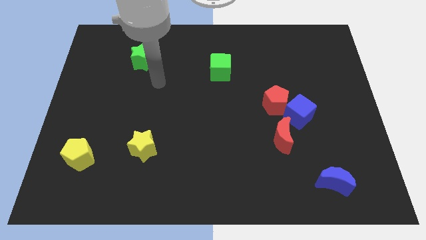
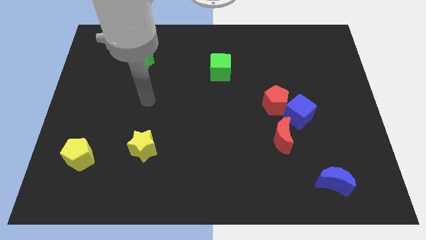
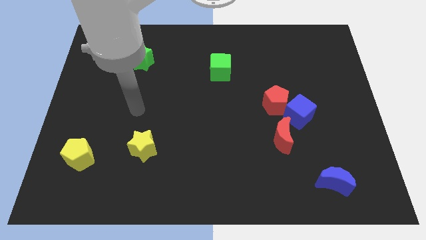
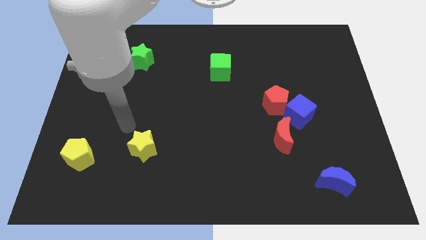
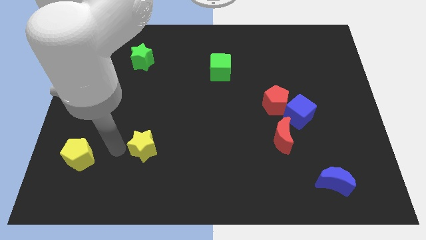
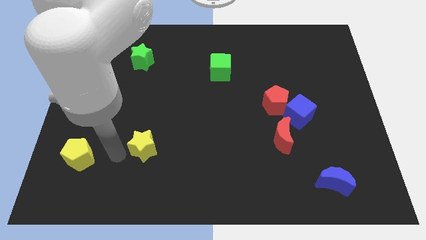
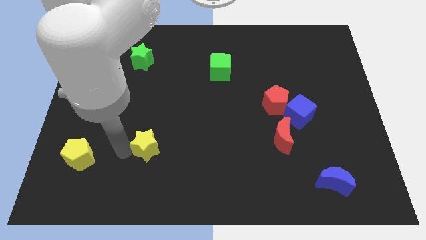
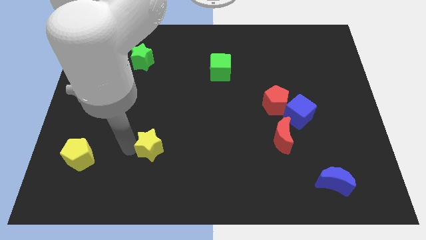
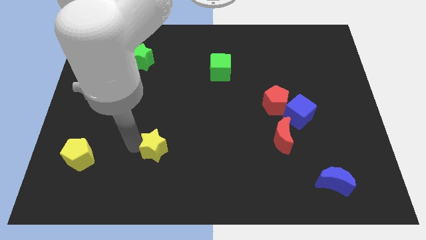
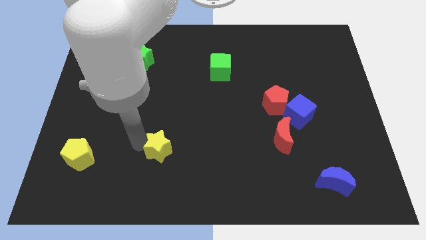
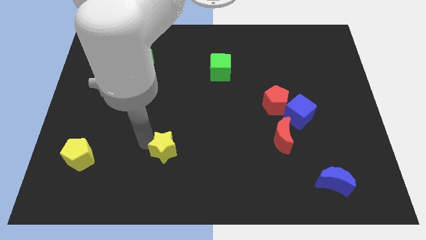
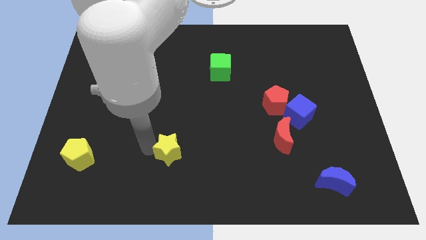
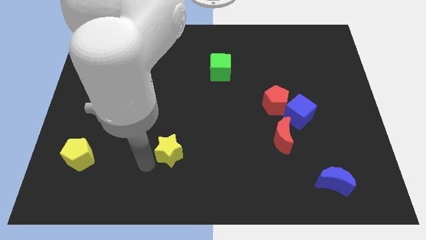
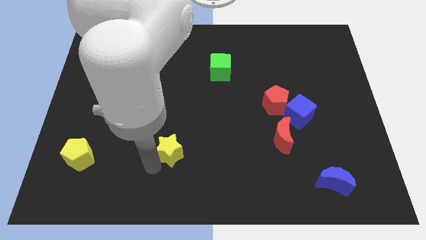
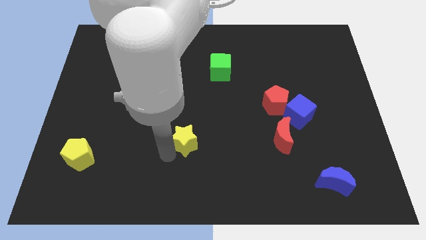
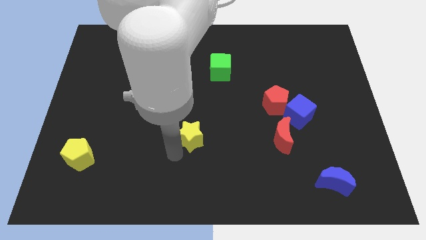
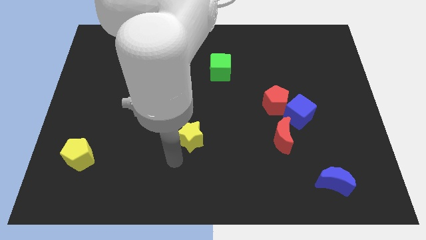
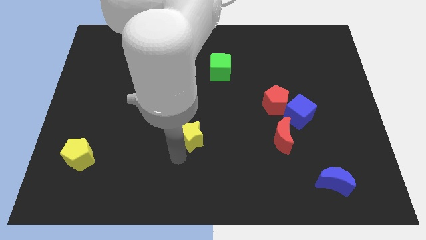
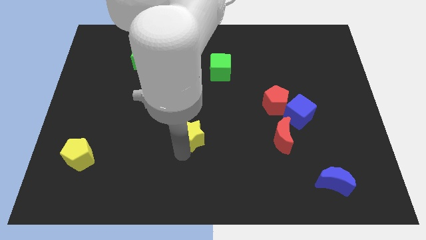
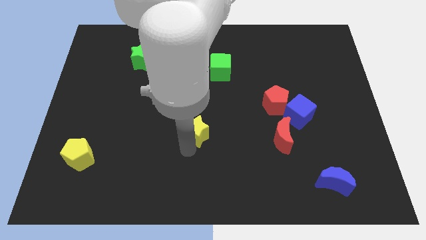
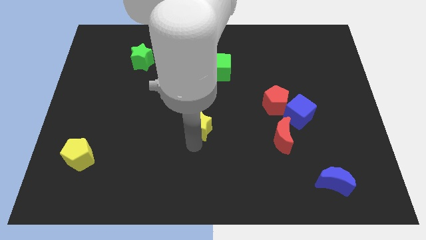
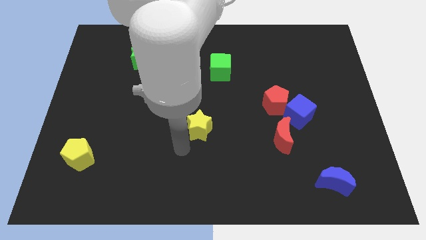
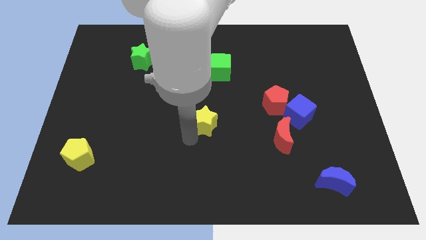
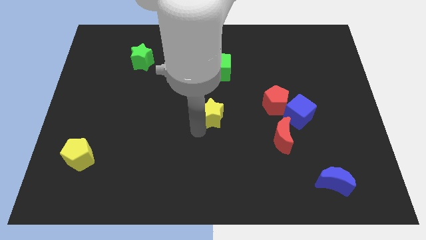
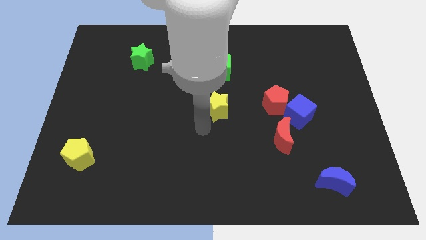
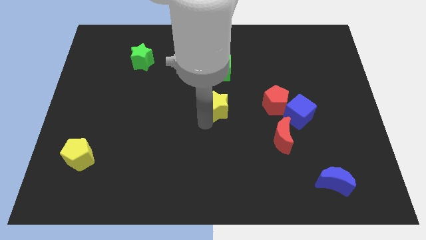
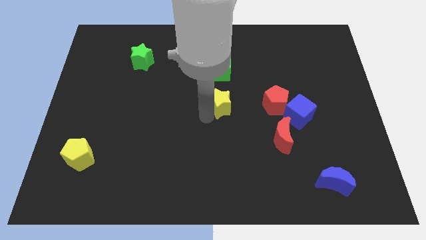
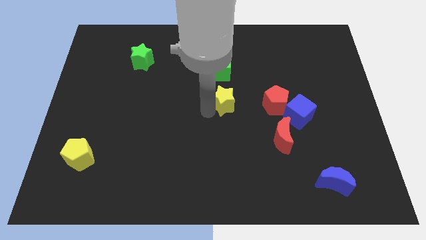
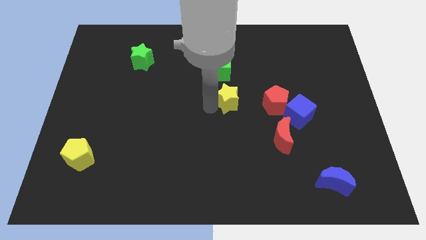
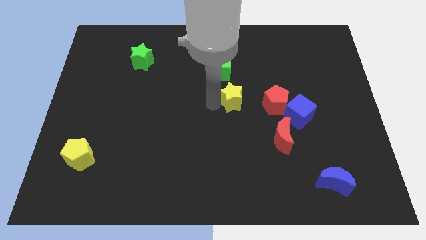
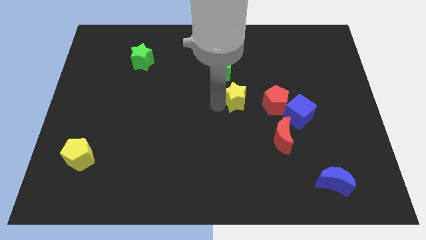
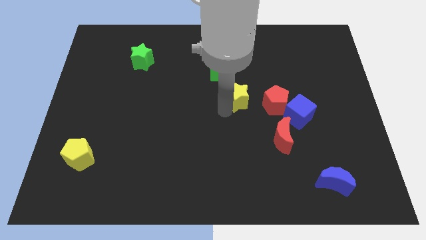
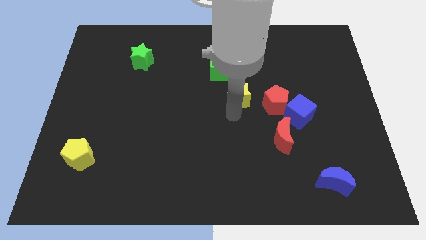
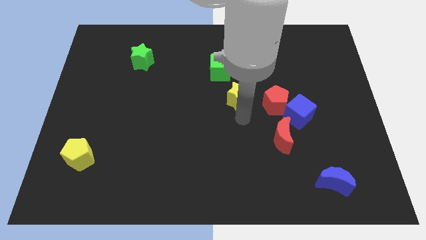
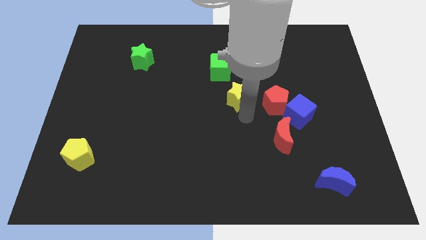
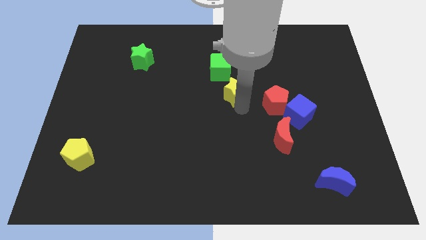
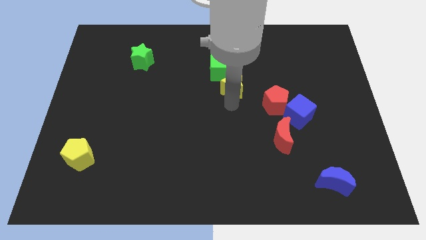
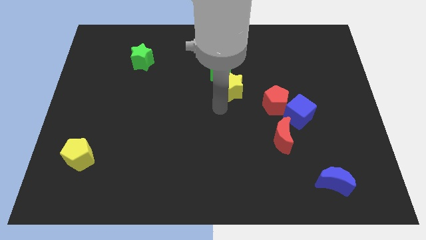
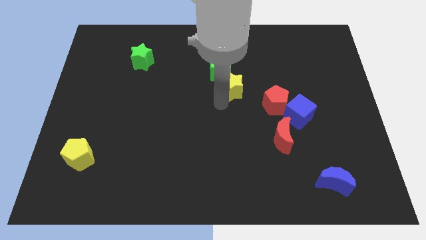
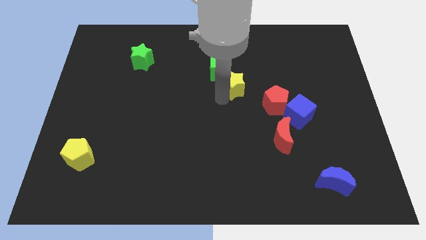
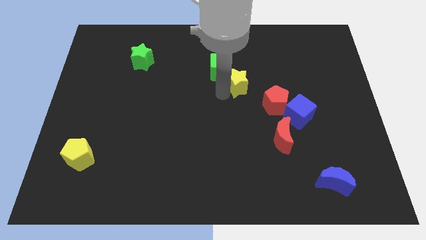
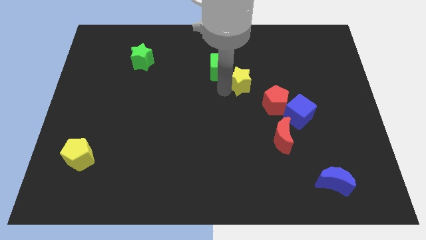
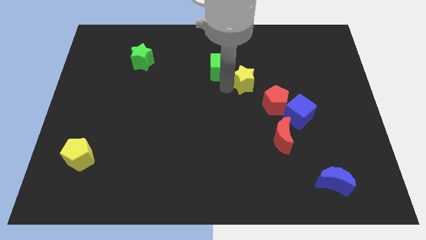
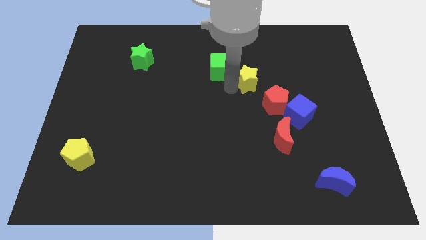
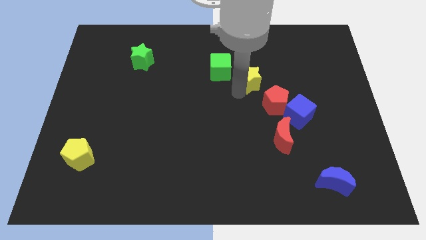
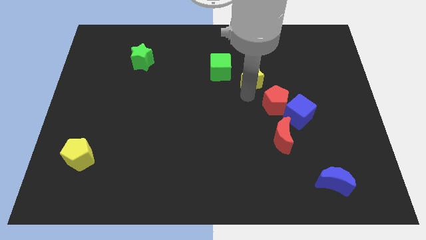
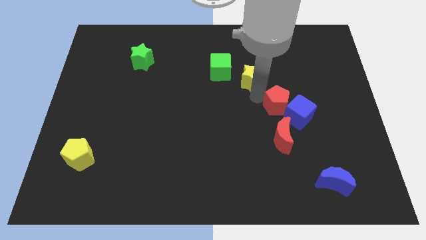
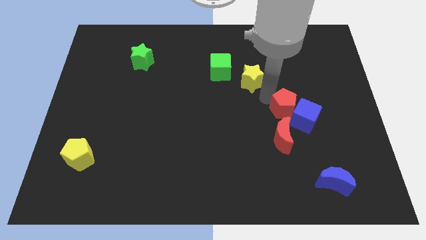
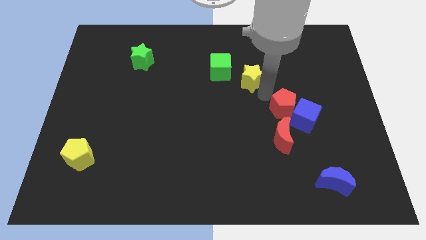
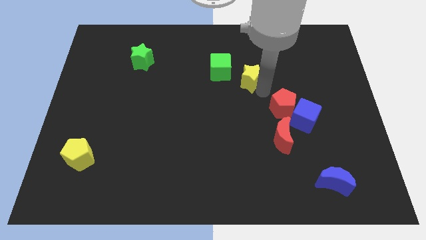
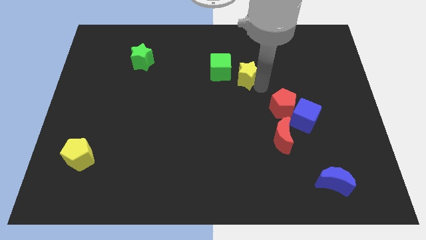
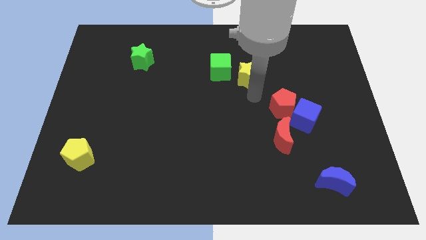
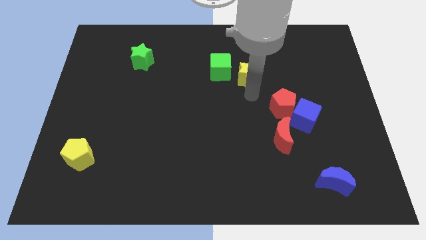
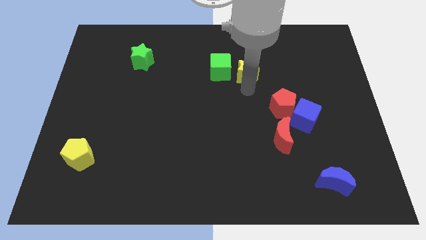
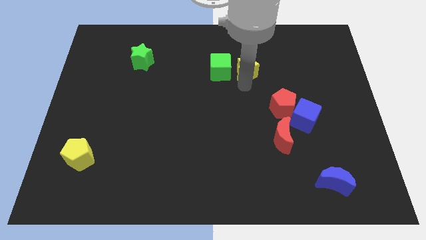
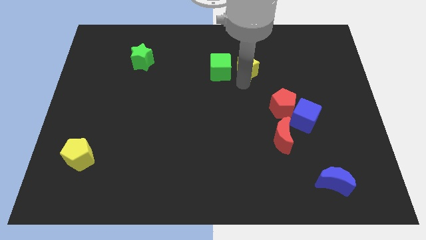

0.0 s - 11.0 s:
move the yellow star diagonally up and to the right of the green cube

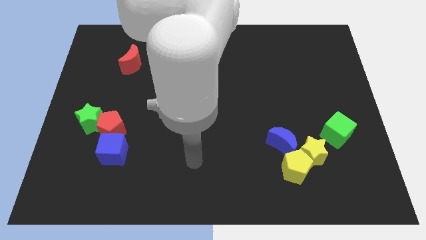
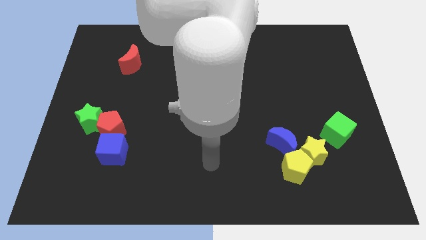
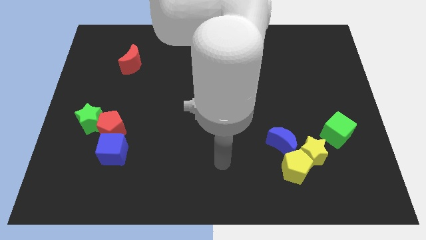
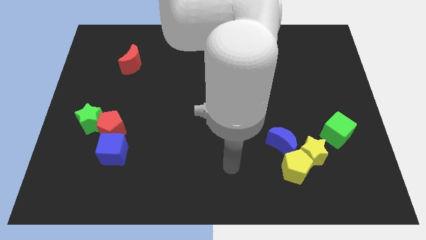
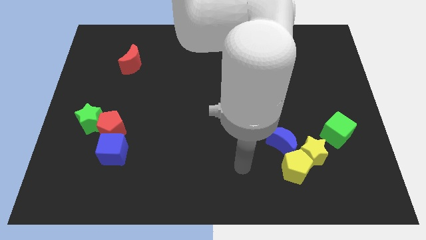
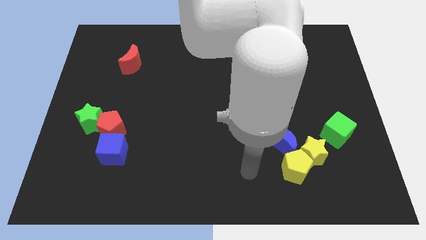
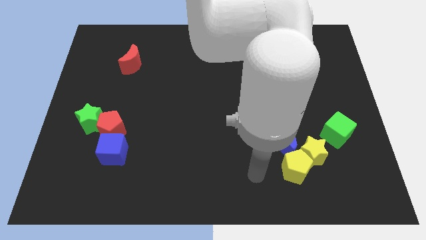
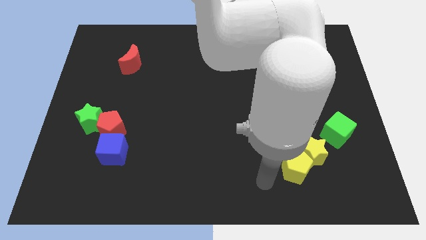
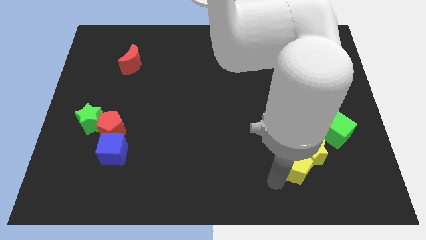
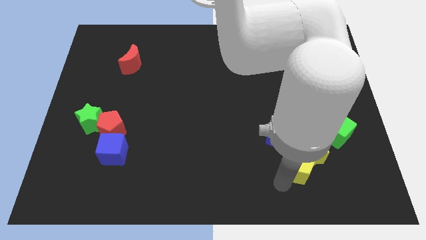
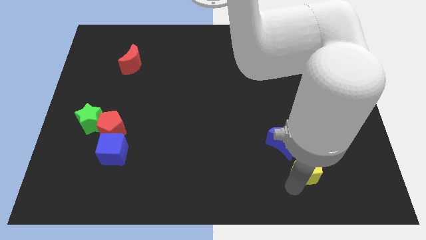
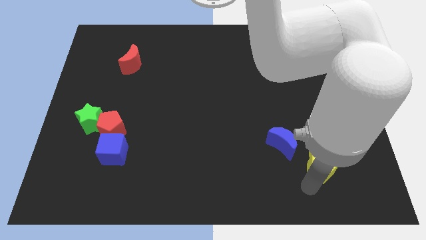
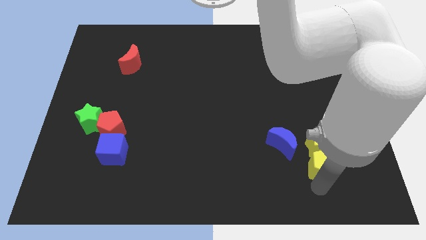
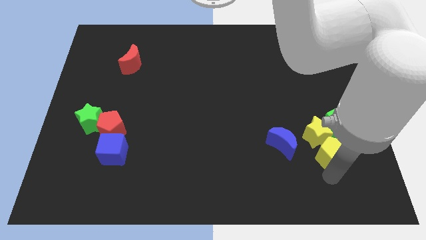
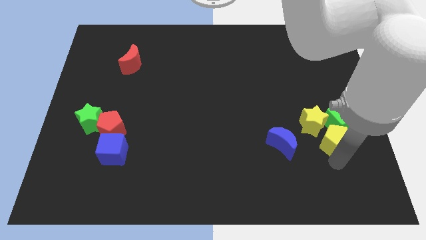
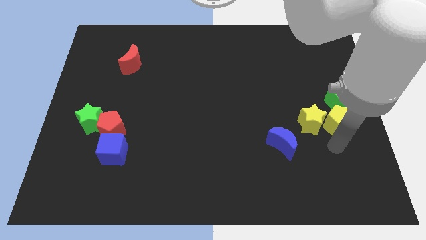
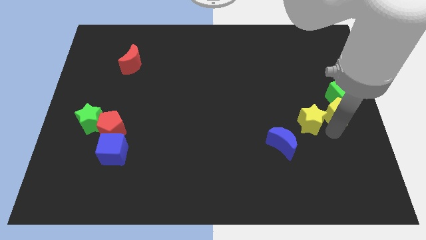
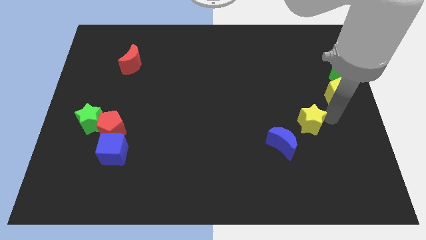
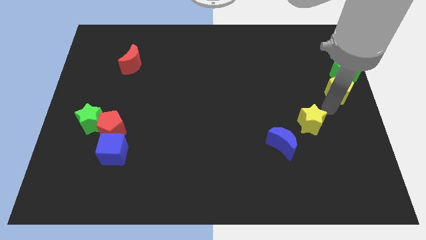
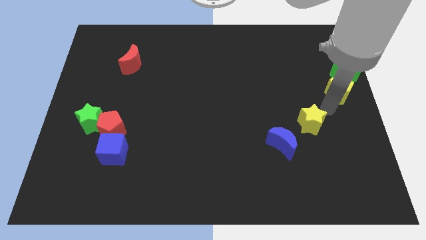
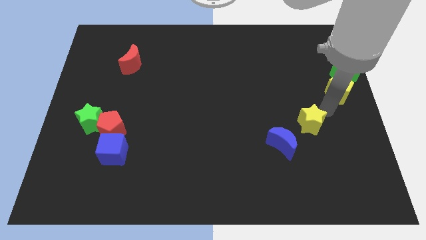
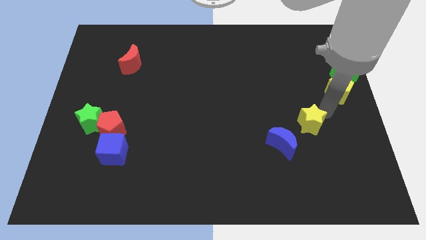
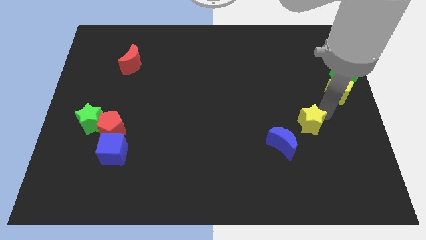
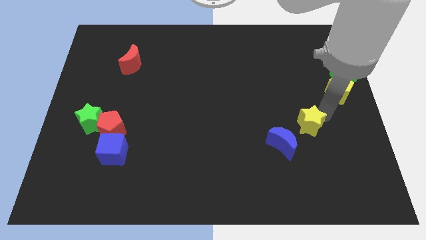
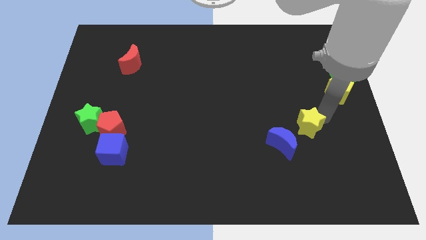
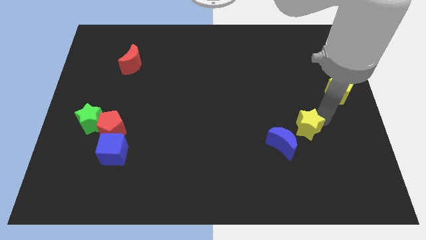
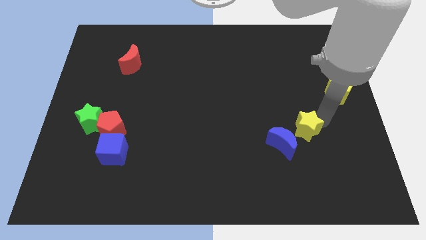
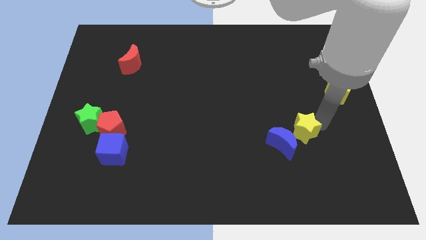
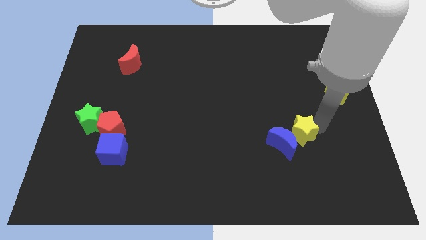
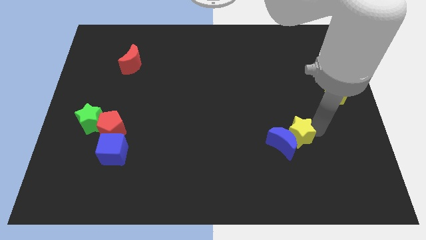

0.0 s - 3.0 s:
slide the yellow star to the top side of the blue moon
